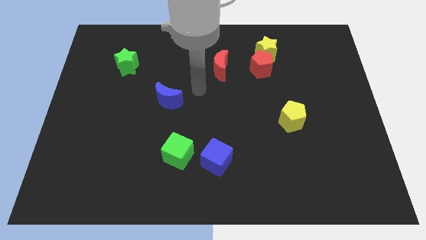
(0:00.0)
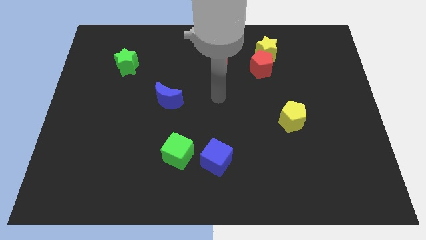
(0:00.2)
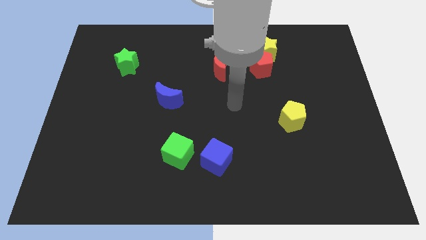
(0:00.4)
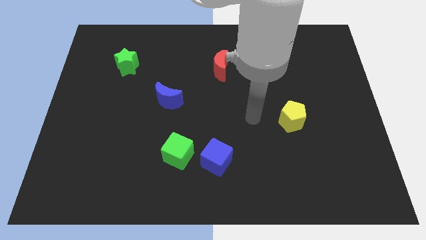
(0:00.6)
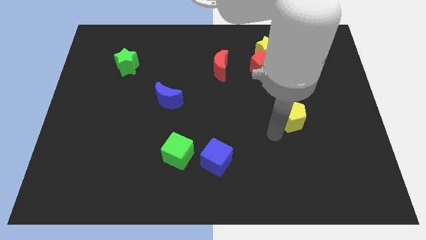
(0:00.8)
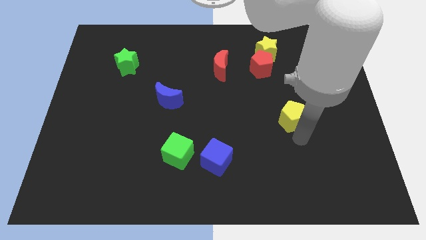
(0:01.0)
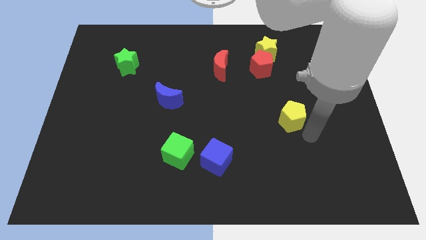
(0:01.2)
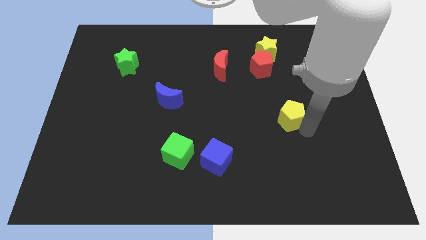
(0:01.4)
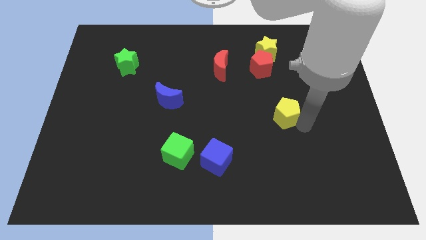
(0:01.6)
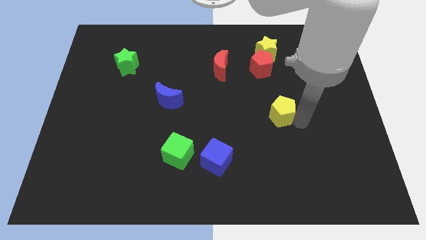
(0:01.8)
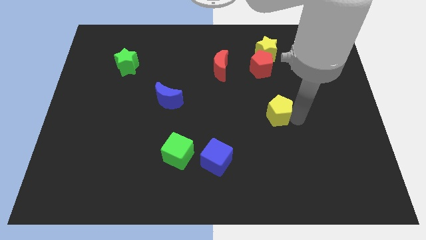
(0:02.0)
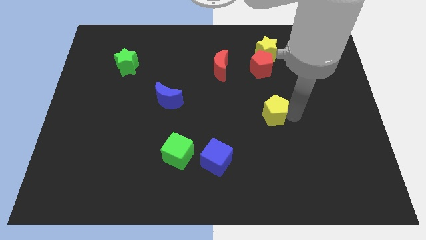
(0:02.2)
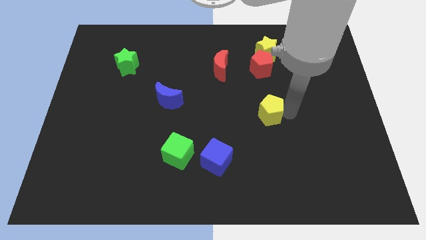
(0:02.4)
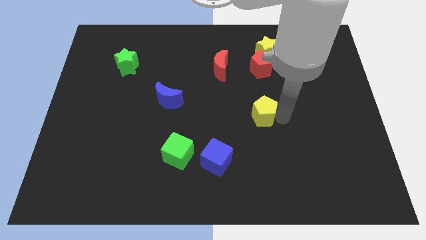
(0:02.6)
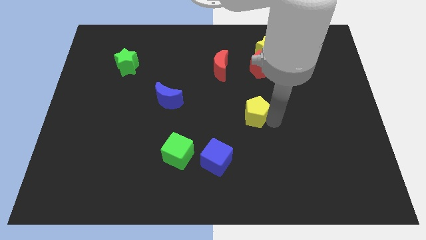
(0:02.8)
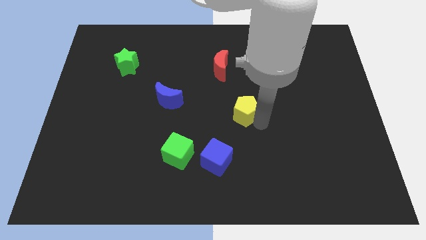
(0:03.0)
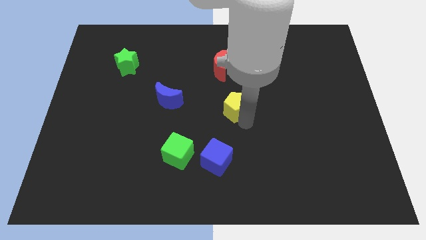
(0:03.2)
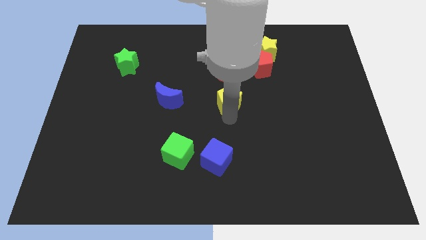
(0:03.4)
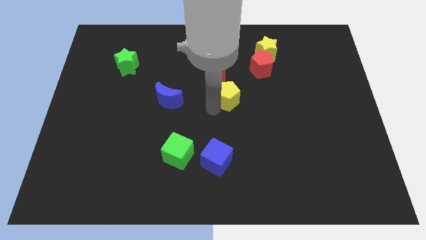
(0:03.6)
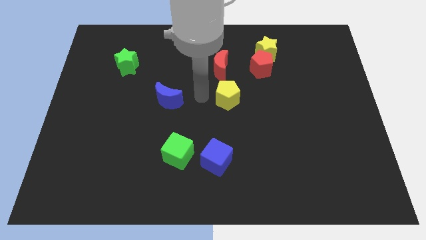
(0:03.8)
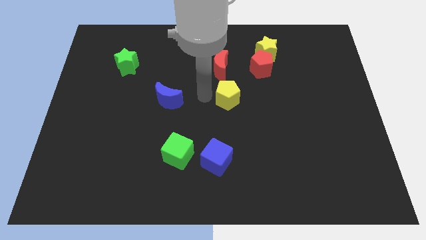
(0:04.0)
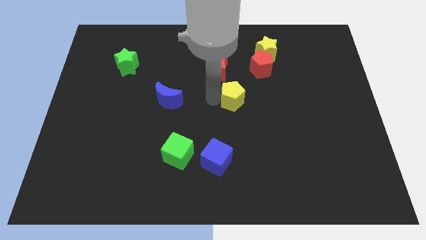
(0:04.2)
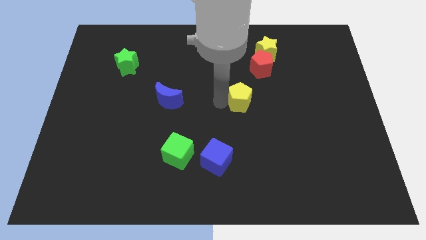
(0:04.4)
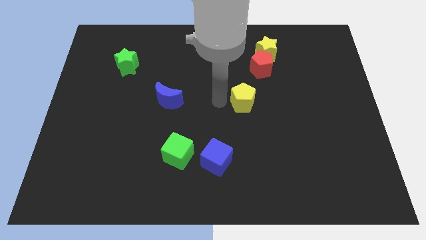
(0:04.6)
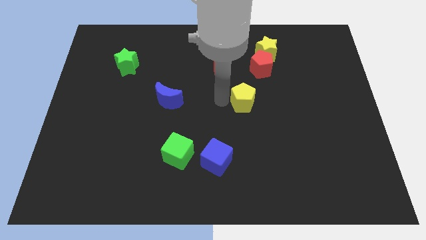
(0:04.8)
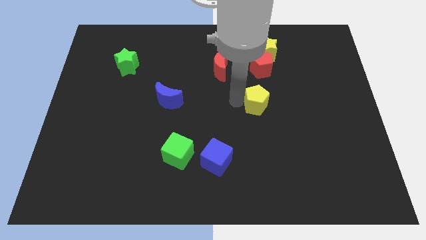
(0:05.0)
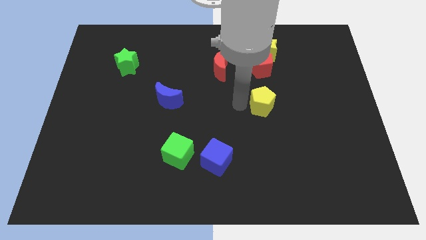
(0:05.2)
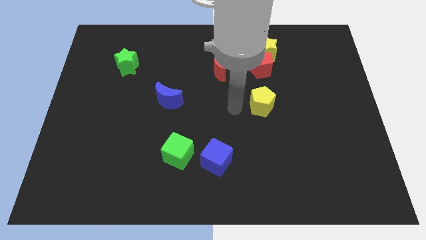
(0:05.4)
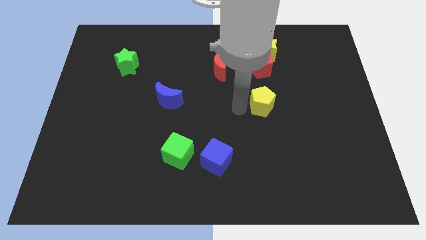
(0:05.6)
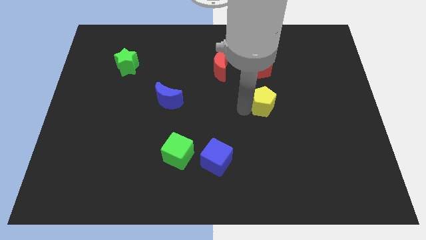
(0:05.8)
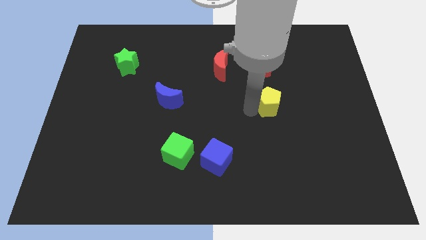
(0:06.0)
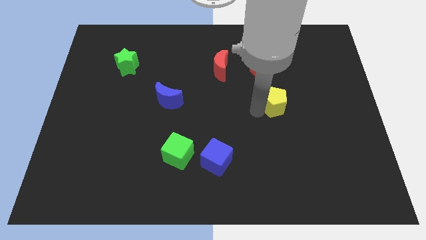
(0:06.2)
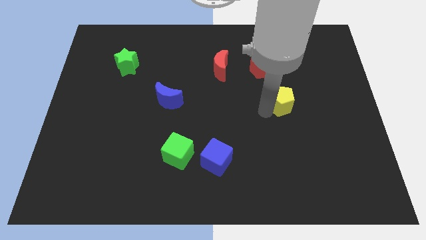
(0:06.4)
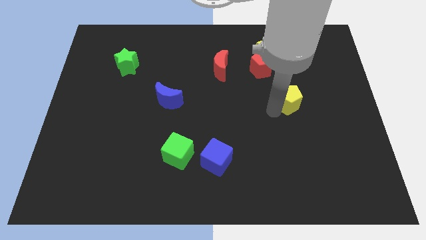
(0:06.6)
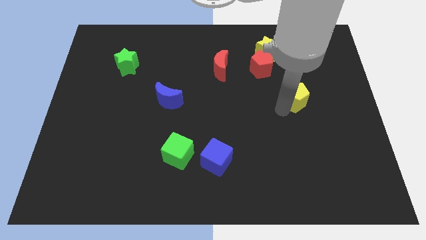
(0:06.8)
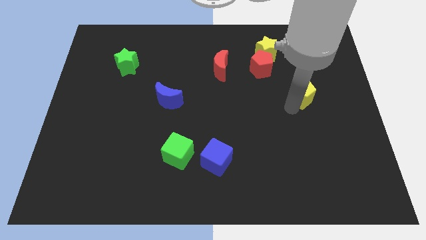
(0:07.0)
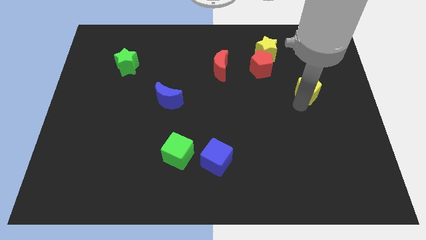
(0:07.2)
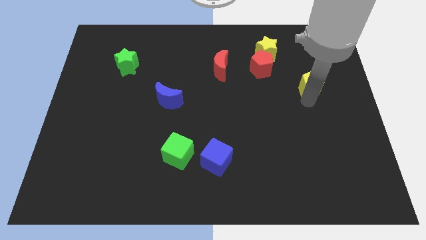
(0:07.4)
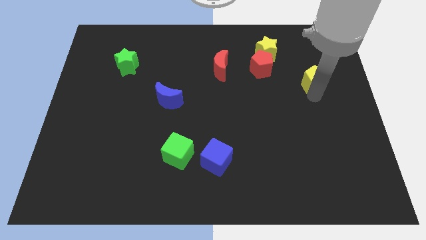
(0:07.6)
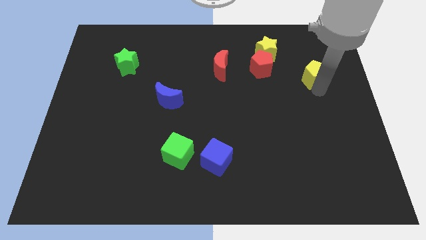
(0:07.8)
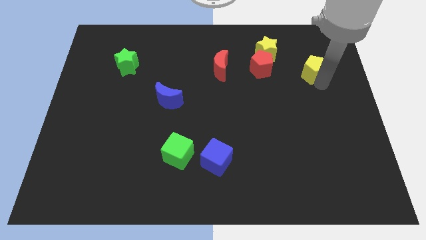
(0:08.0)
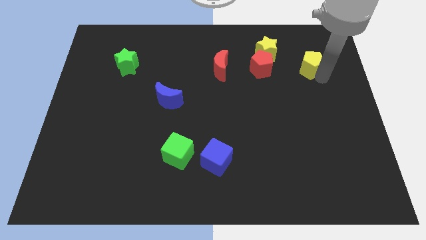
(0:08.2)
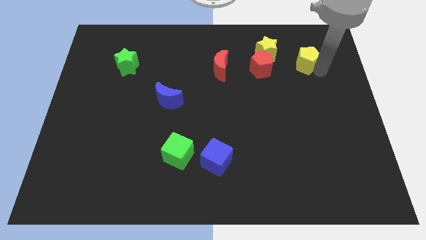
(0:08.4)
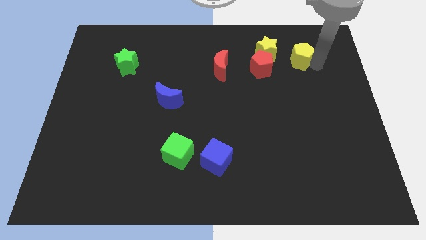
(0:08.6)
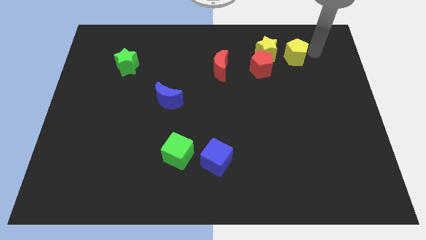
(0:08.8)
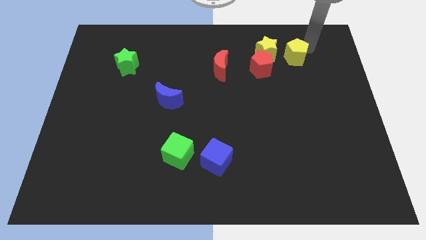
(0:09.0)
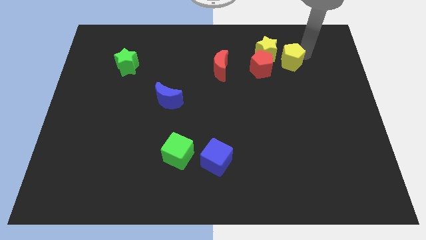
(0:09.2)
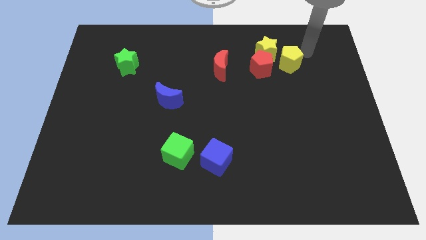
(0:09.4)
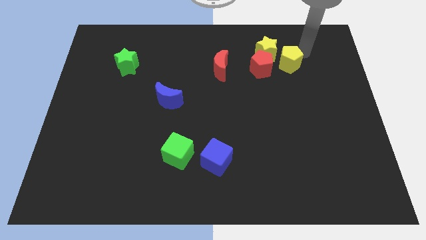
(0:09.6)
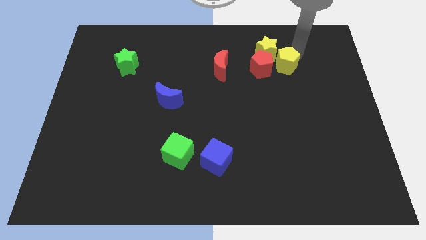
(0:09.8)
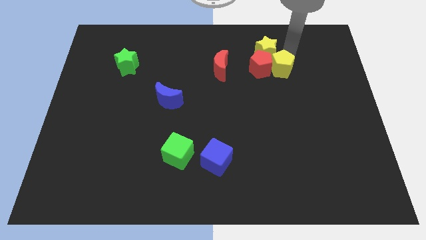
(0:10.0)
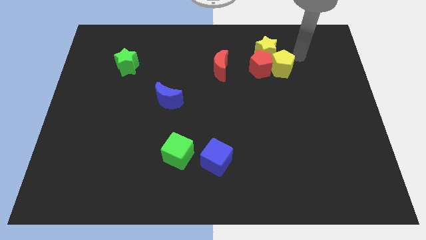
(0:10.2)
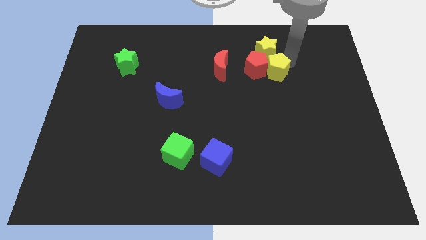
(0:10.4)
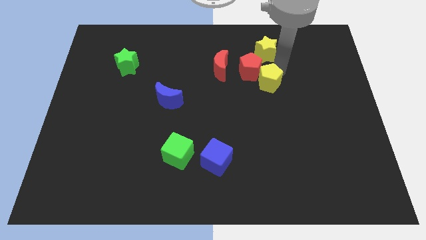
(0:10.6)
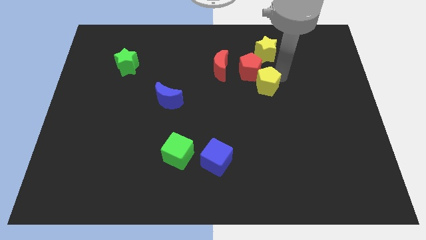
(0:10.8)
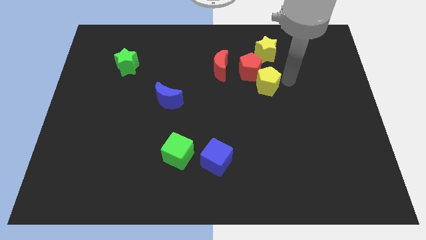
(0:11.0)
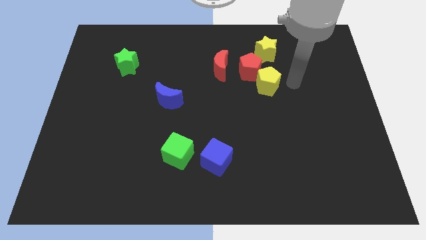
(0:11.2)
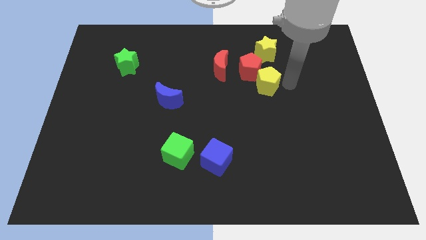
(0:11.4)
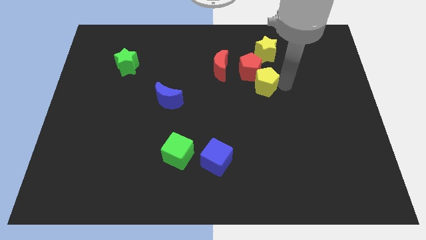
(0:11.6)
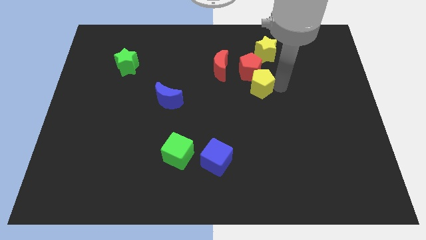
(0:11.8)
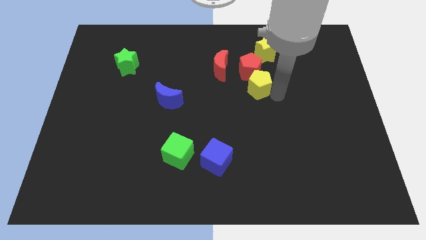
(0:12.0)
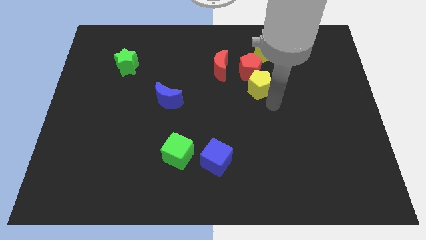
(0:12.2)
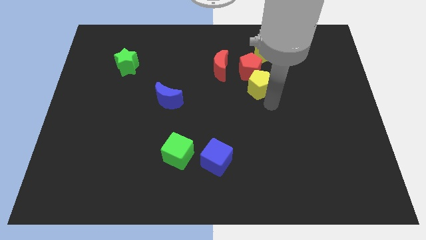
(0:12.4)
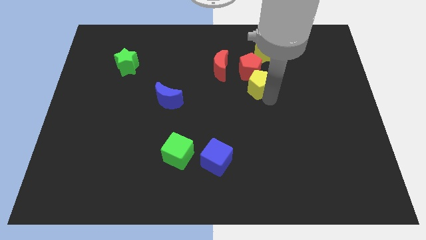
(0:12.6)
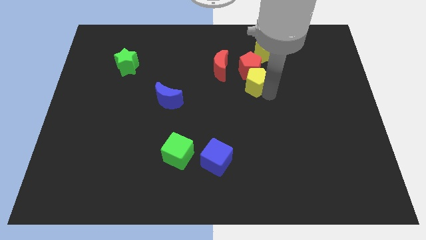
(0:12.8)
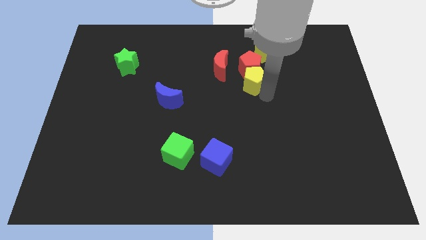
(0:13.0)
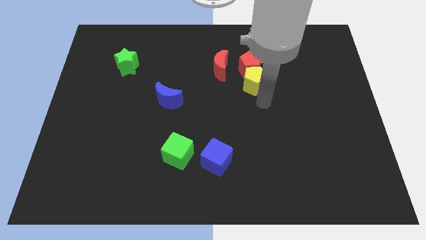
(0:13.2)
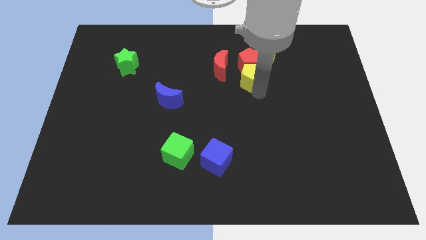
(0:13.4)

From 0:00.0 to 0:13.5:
slide the yellow pentagon to the bottom left side of the yellow star

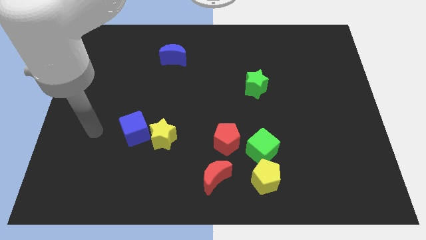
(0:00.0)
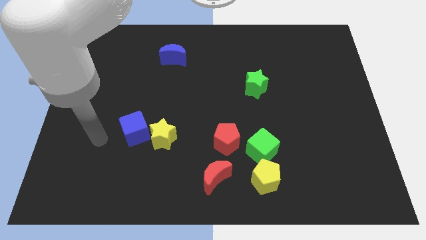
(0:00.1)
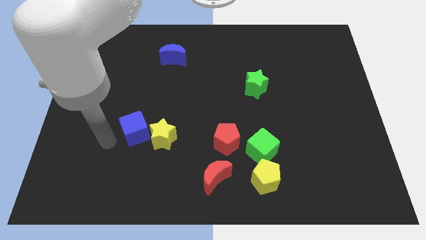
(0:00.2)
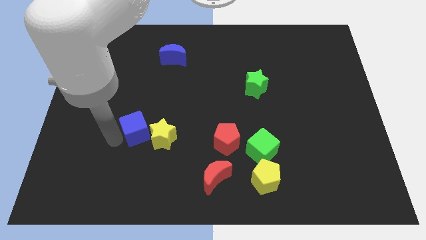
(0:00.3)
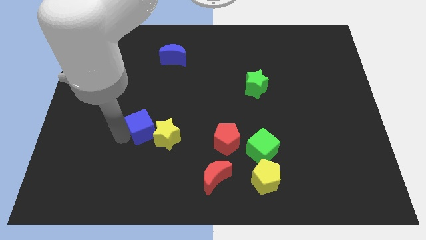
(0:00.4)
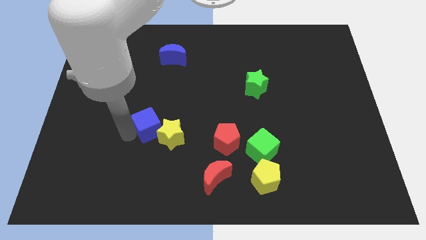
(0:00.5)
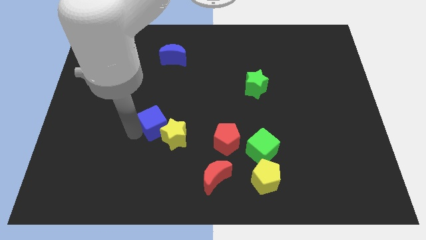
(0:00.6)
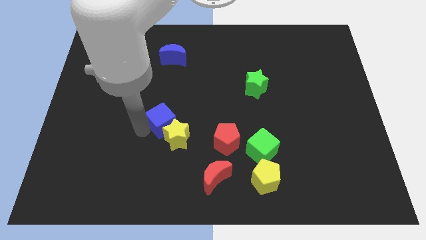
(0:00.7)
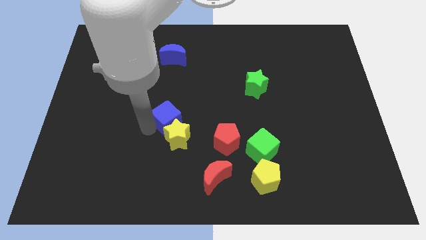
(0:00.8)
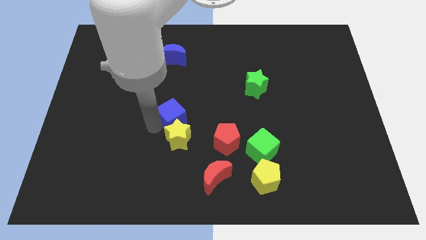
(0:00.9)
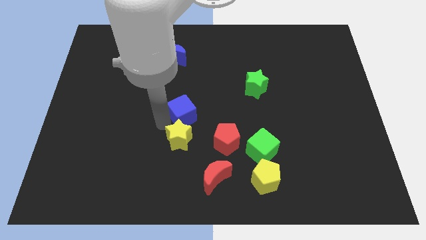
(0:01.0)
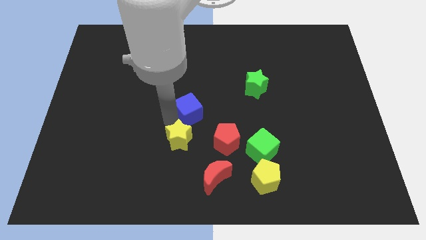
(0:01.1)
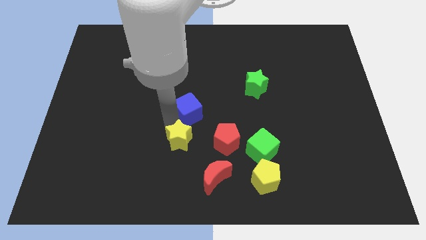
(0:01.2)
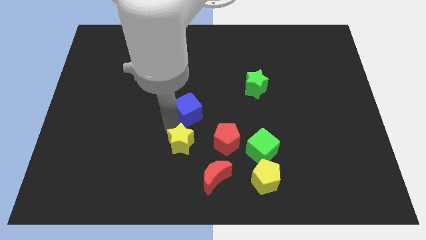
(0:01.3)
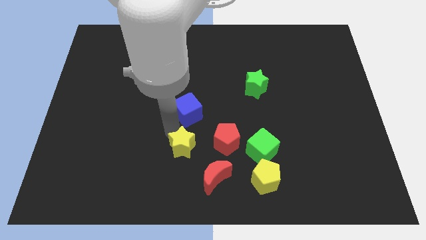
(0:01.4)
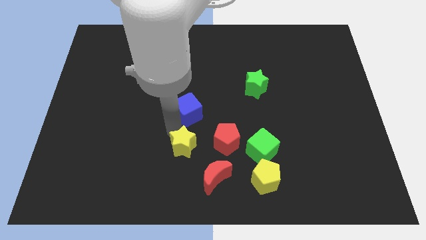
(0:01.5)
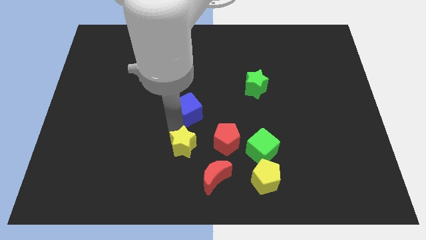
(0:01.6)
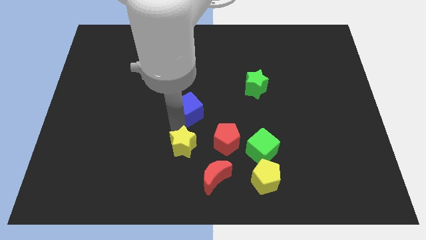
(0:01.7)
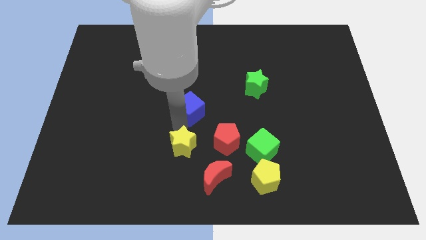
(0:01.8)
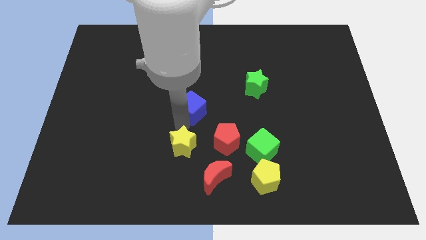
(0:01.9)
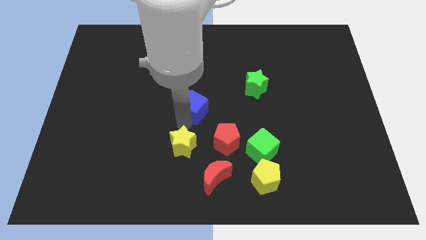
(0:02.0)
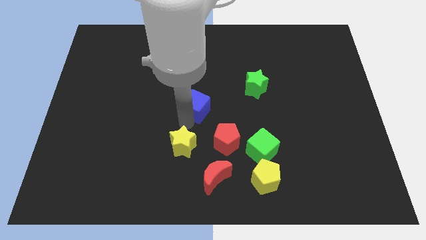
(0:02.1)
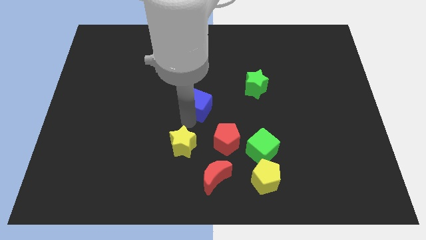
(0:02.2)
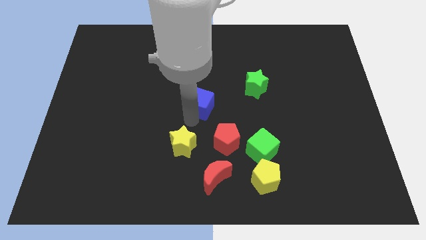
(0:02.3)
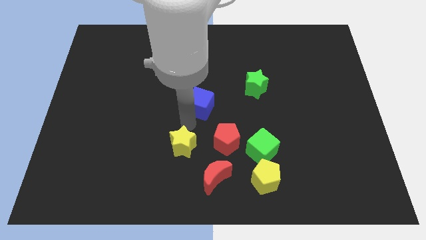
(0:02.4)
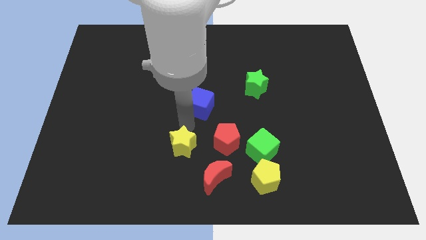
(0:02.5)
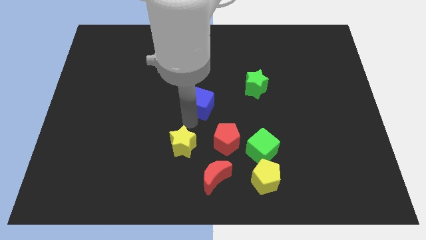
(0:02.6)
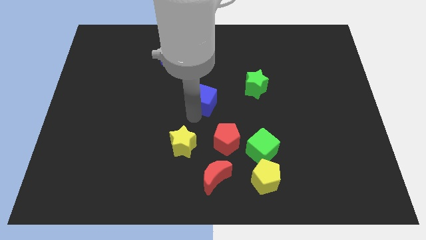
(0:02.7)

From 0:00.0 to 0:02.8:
slide the blue cube to the left of the green star
